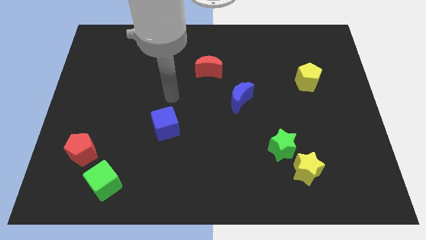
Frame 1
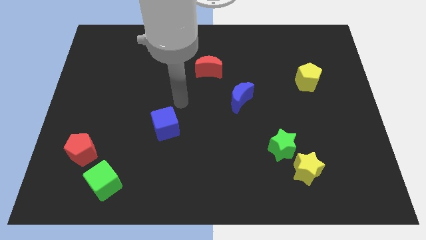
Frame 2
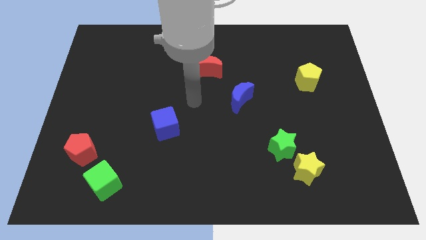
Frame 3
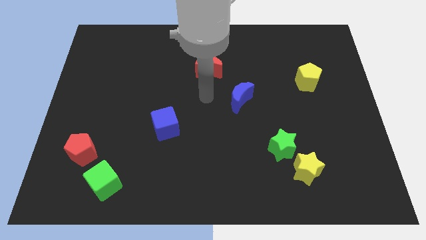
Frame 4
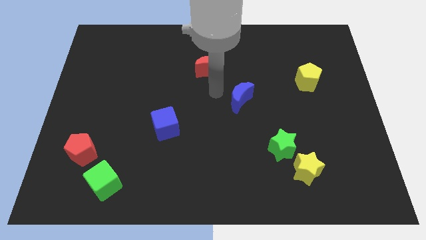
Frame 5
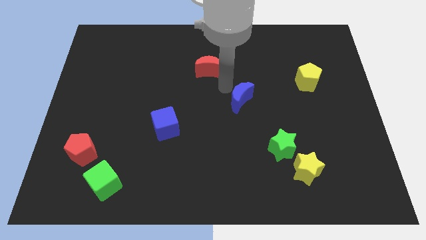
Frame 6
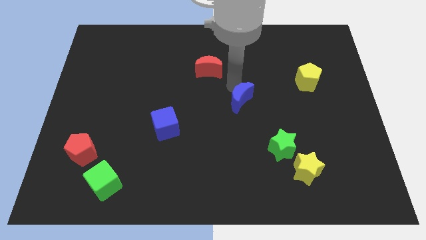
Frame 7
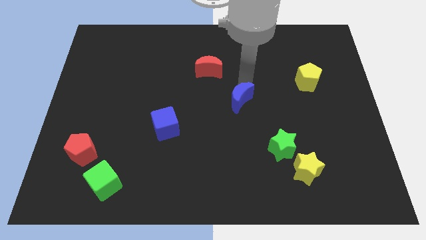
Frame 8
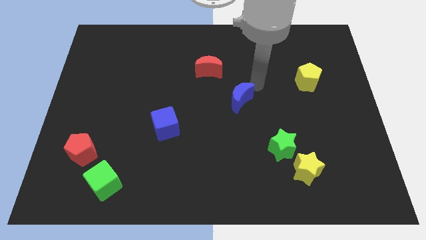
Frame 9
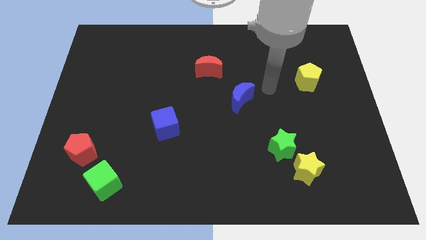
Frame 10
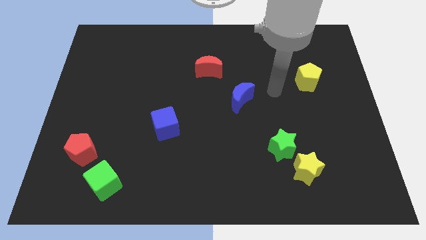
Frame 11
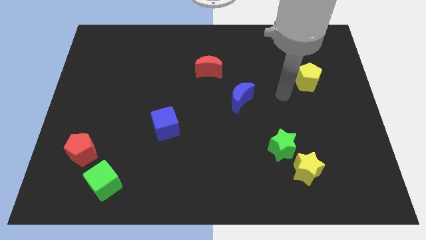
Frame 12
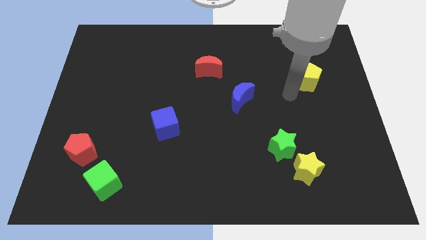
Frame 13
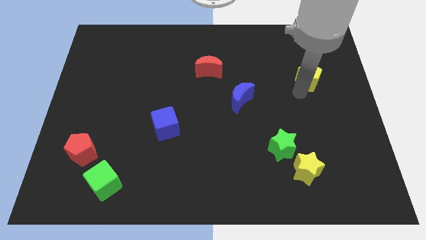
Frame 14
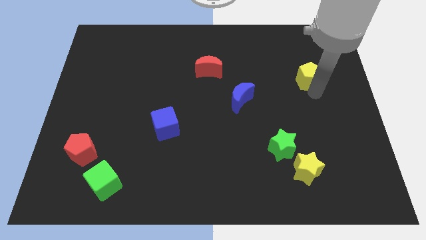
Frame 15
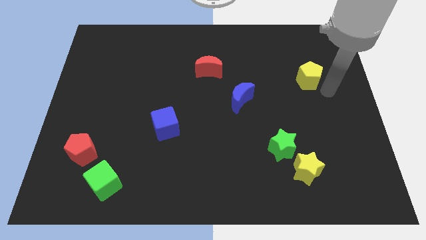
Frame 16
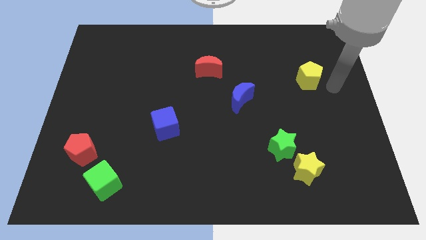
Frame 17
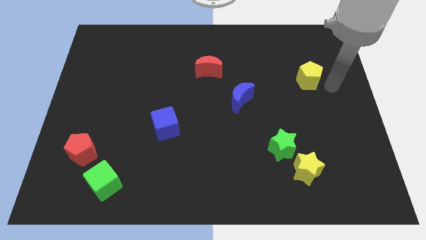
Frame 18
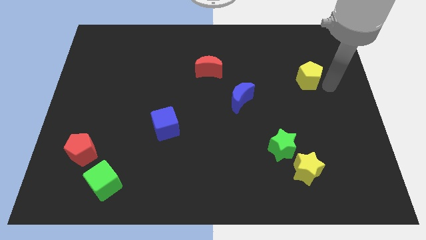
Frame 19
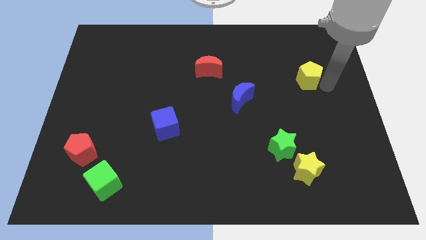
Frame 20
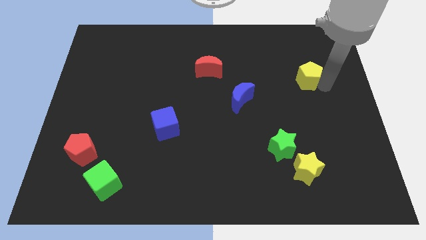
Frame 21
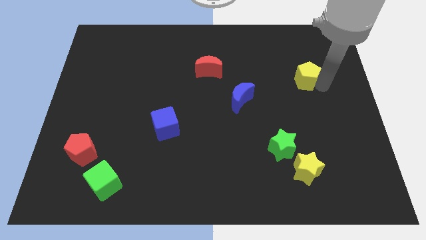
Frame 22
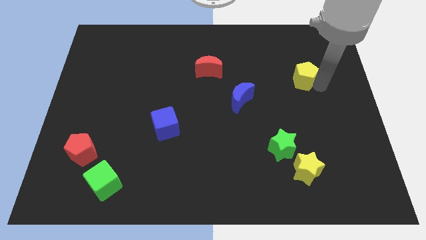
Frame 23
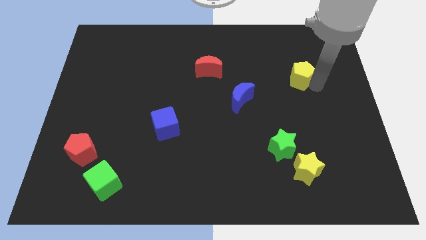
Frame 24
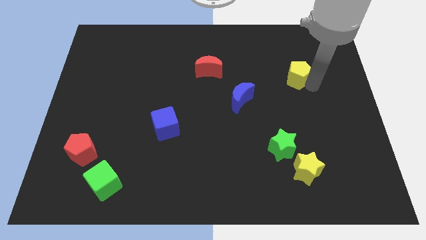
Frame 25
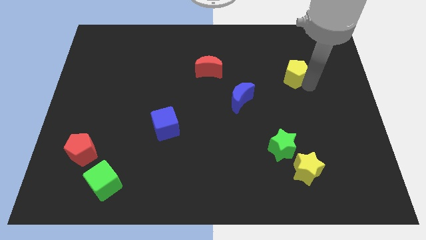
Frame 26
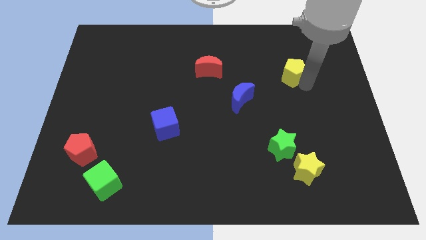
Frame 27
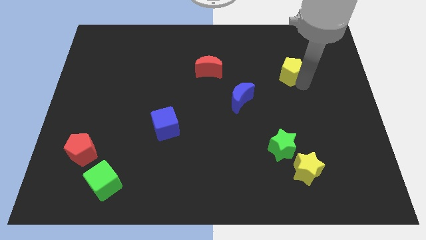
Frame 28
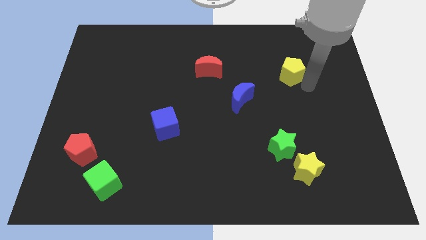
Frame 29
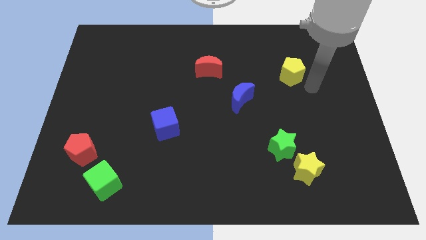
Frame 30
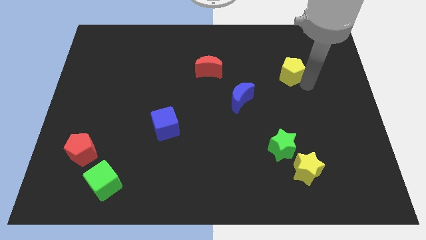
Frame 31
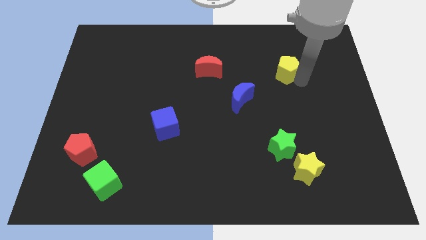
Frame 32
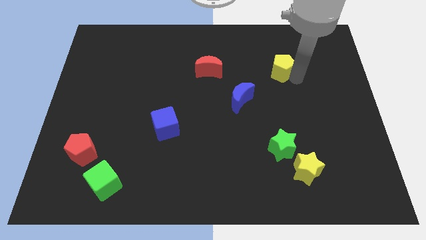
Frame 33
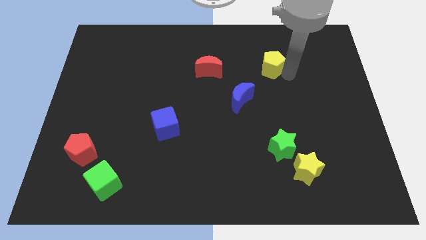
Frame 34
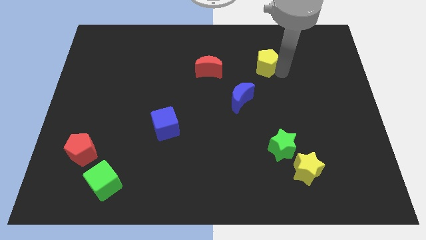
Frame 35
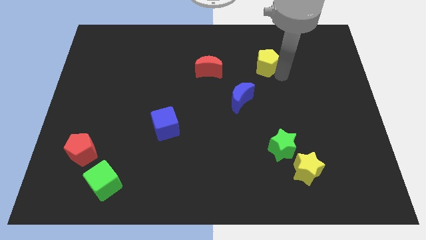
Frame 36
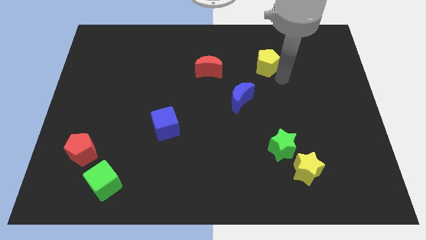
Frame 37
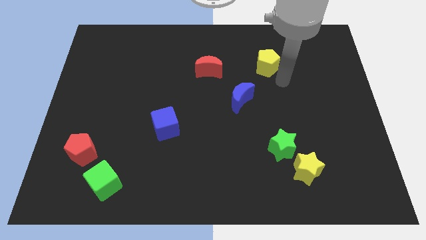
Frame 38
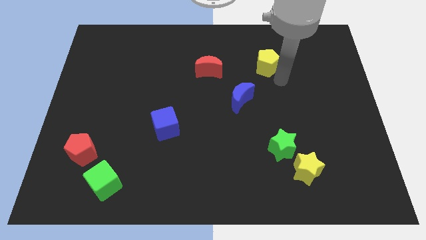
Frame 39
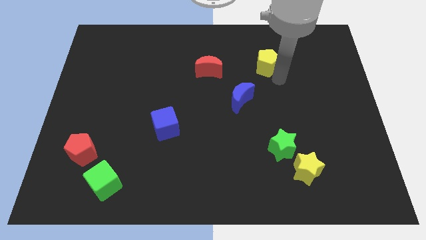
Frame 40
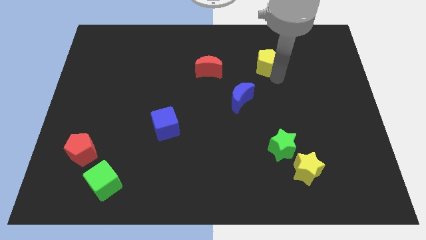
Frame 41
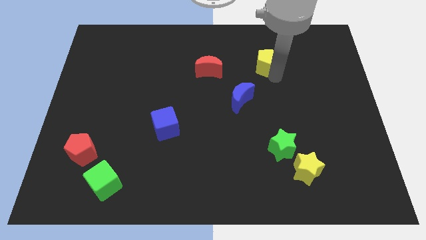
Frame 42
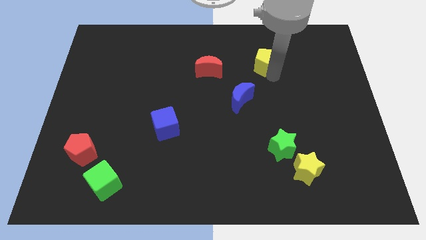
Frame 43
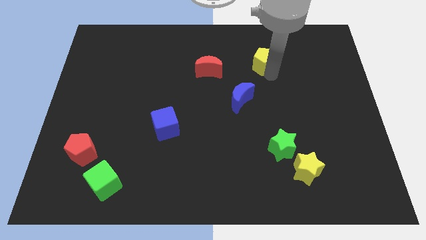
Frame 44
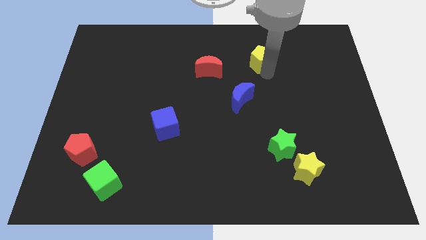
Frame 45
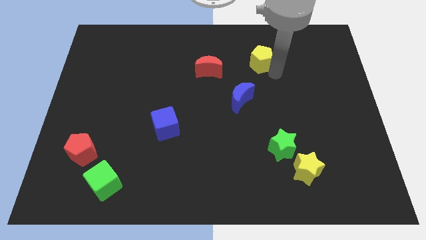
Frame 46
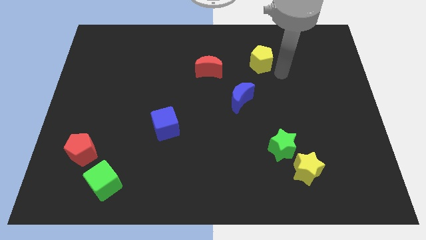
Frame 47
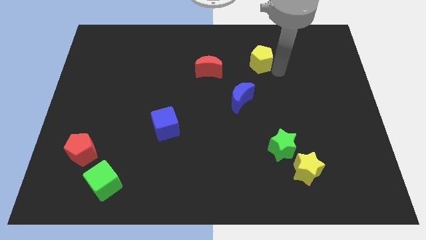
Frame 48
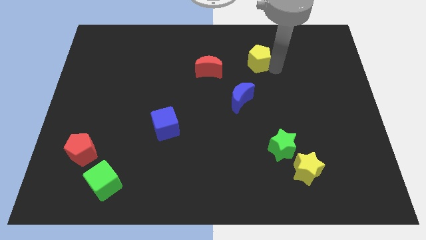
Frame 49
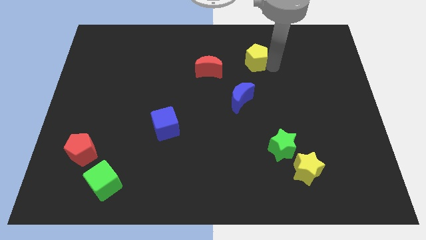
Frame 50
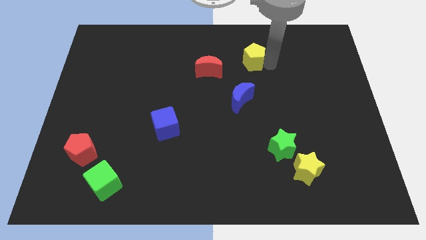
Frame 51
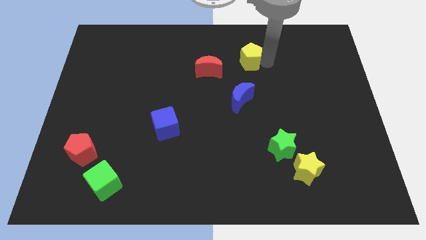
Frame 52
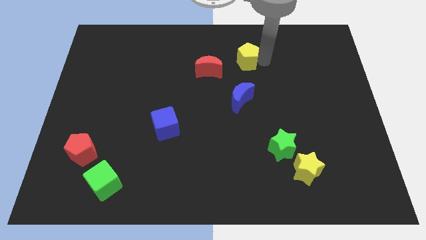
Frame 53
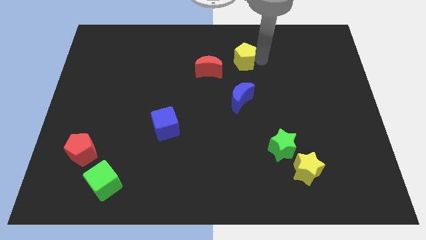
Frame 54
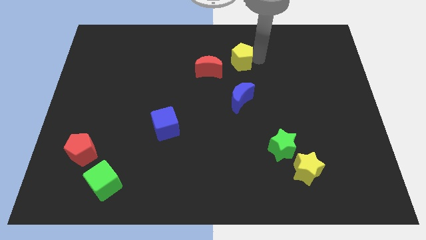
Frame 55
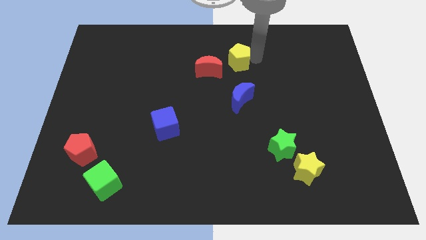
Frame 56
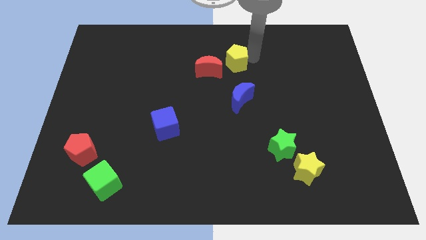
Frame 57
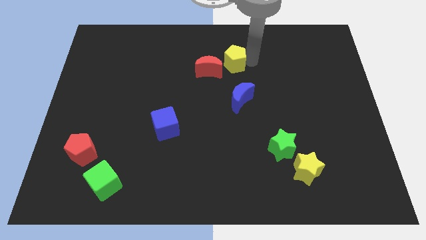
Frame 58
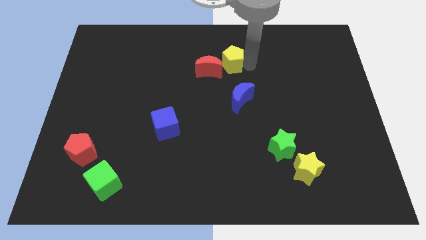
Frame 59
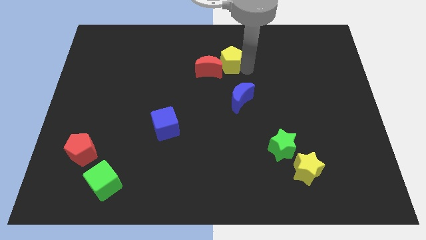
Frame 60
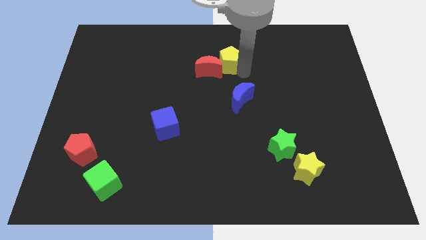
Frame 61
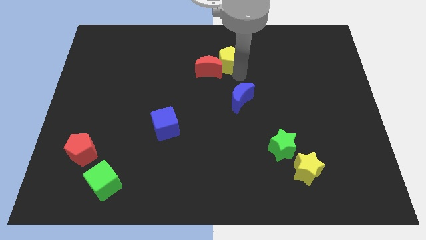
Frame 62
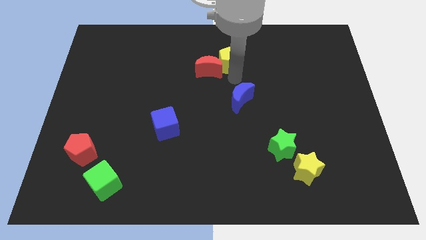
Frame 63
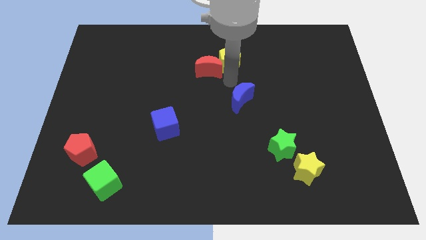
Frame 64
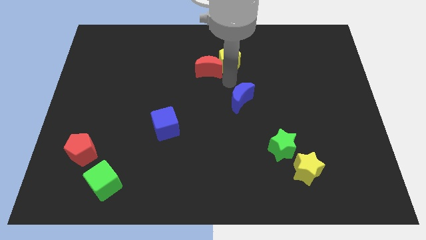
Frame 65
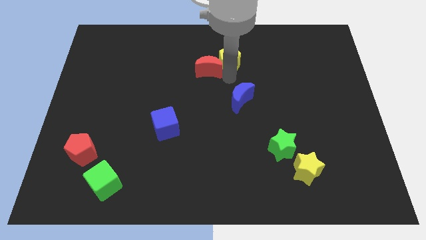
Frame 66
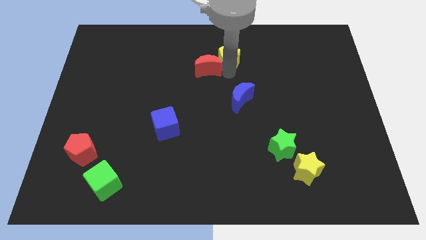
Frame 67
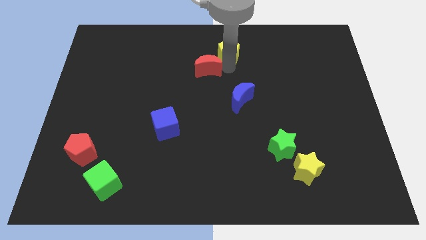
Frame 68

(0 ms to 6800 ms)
push the yellow pentagon to the top side
